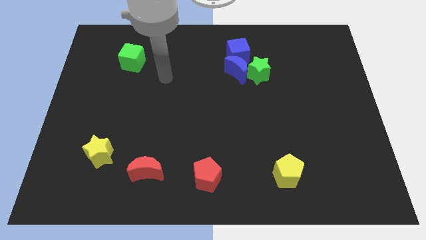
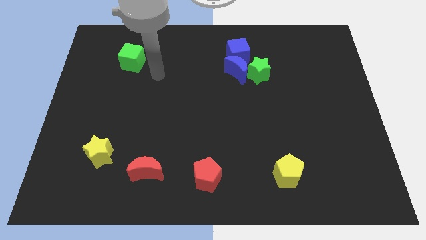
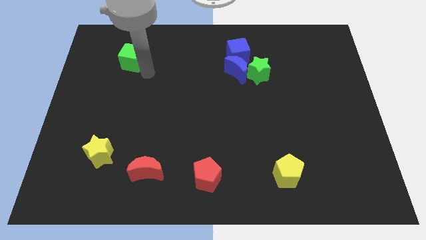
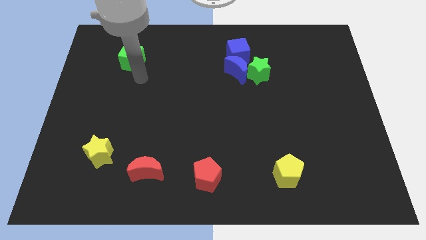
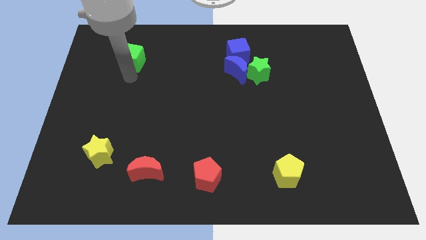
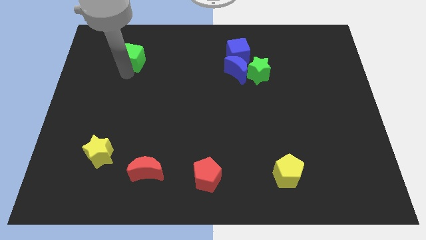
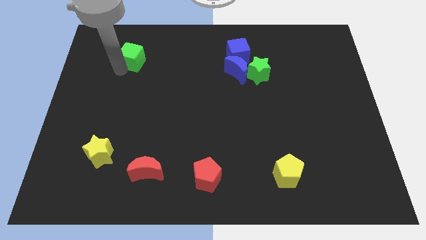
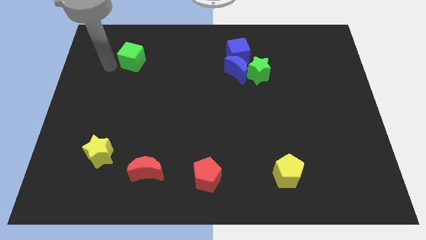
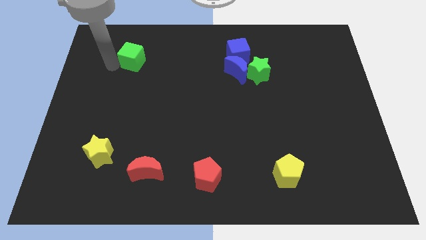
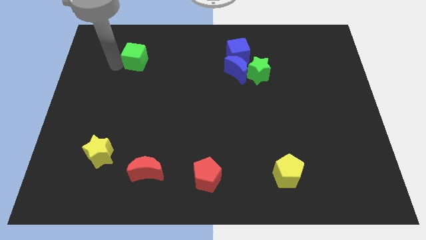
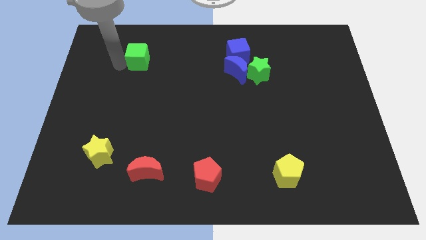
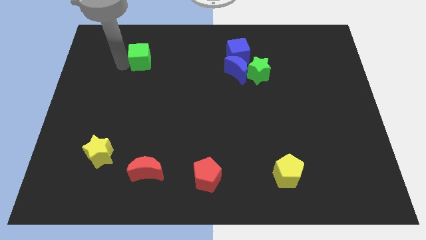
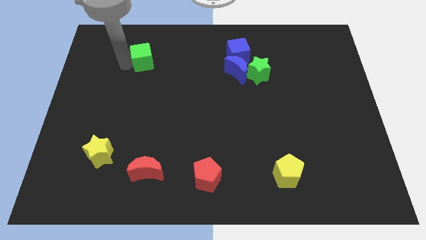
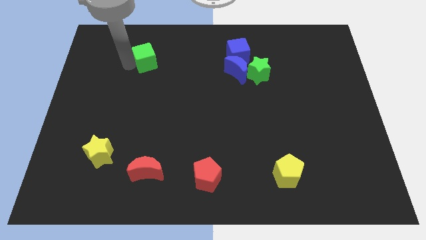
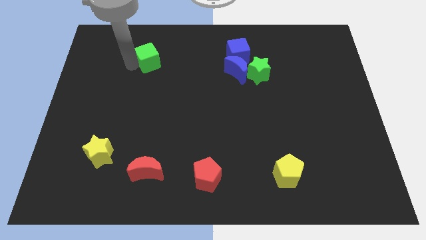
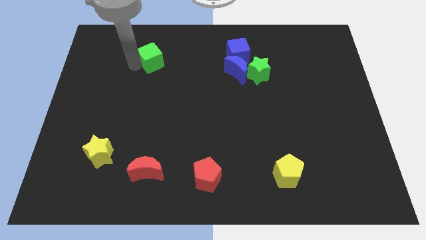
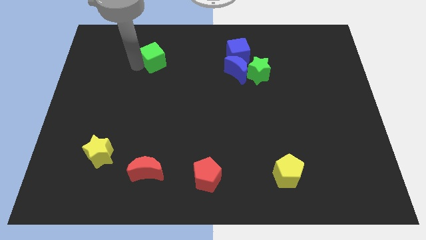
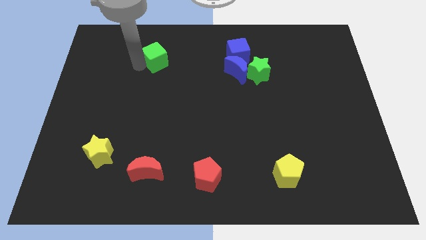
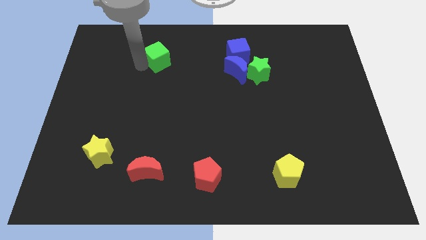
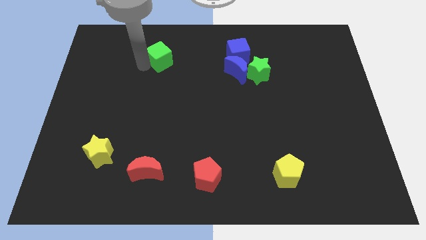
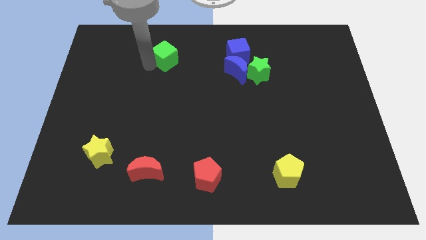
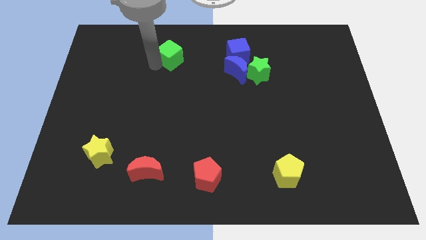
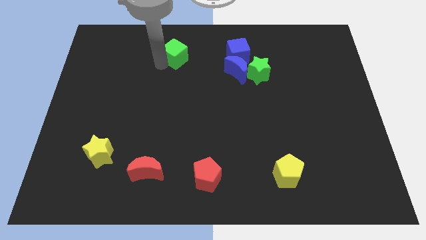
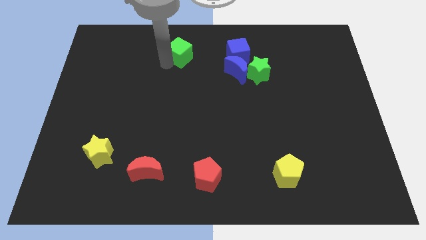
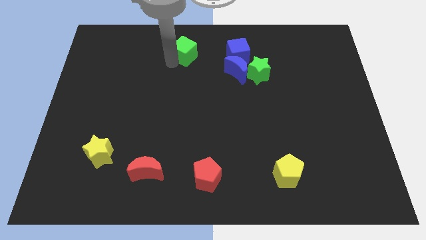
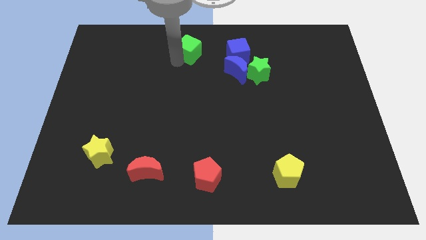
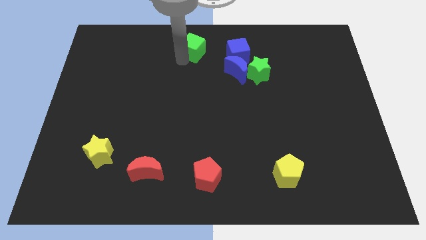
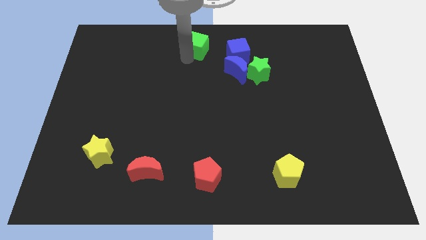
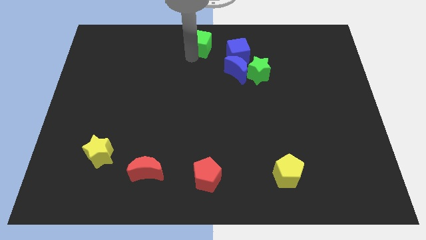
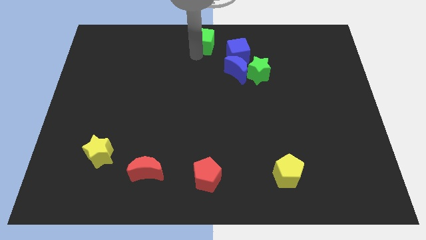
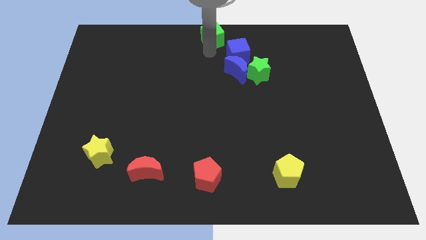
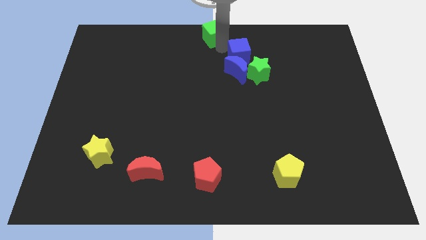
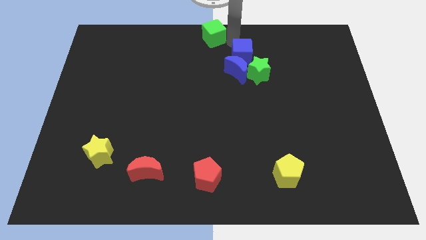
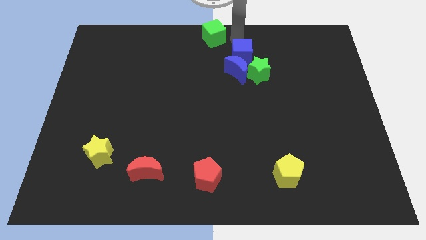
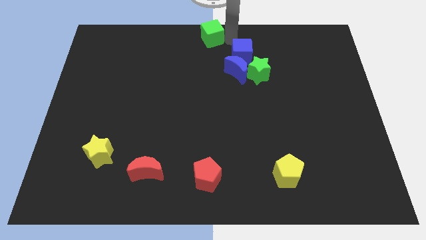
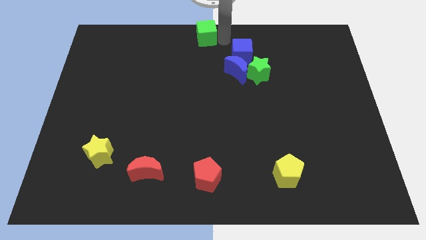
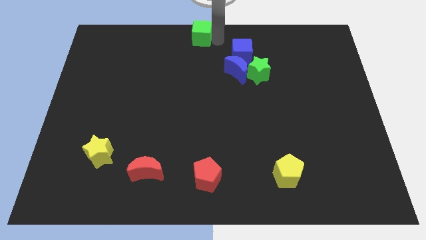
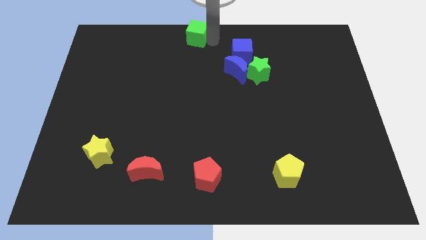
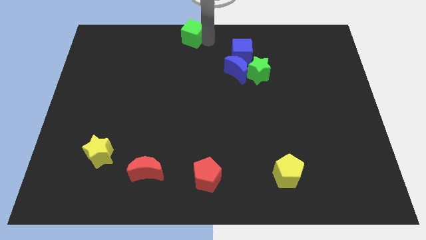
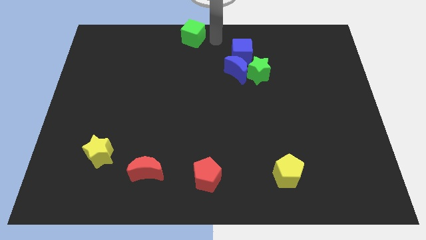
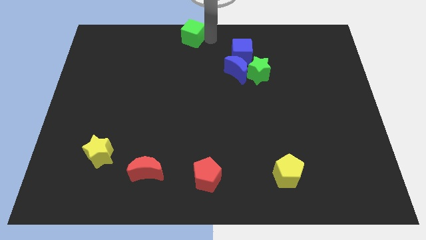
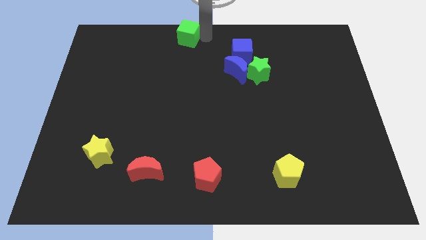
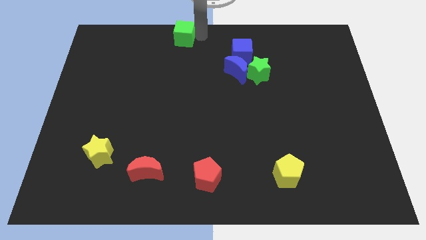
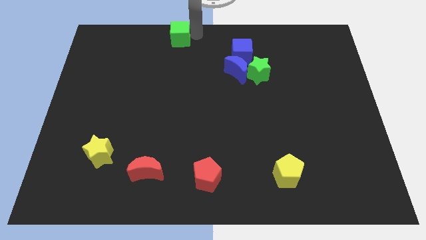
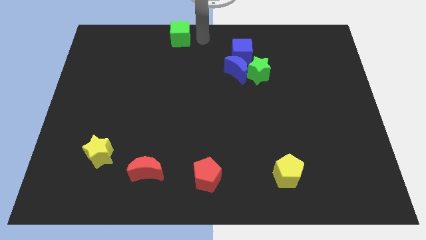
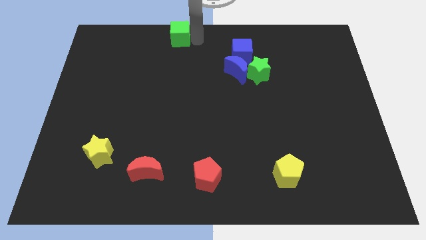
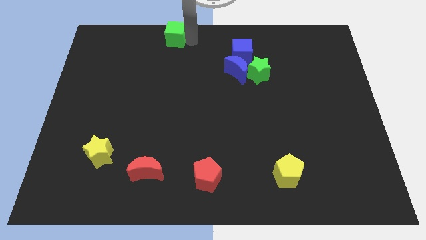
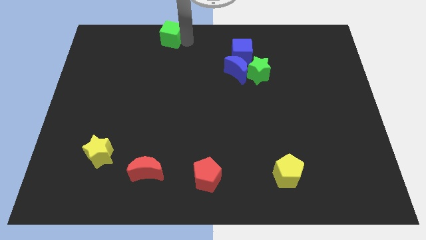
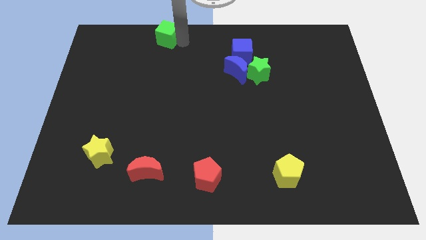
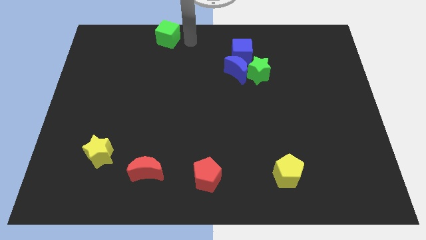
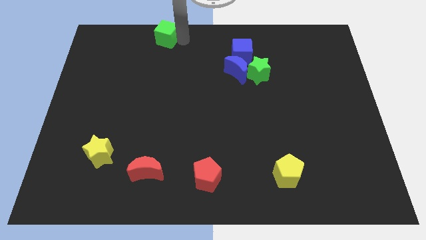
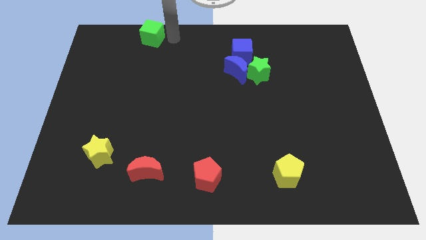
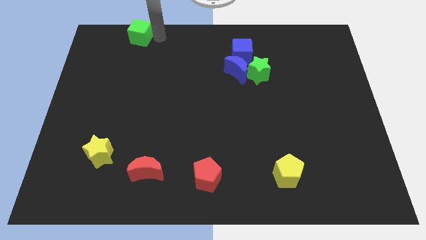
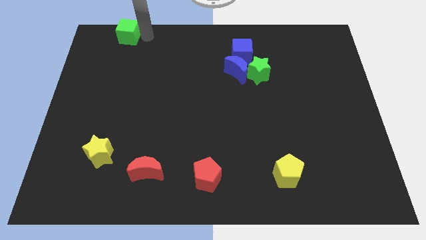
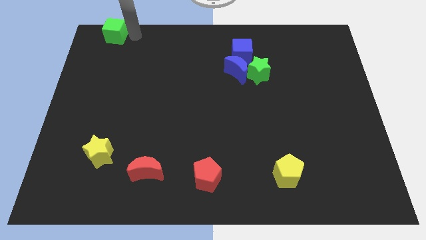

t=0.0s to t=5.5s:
put the green cube to the upper left corner

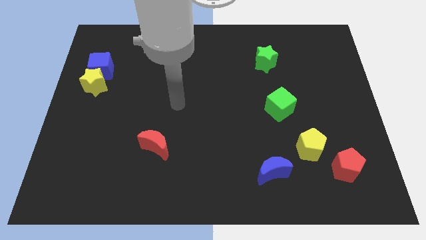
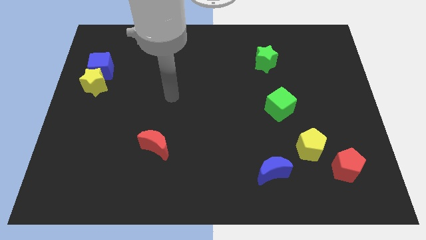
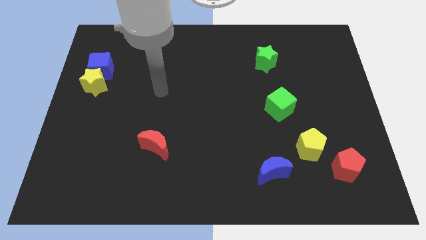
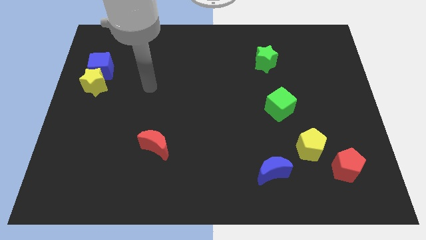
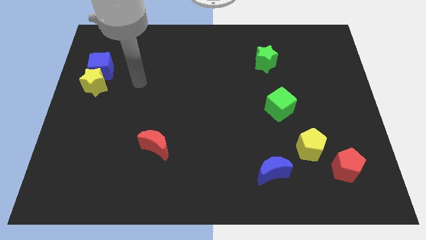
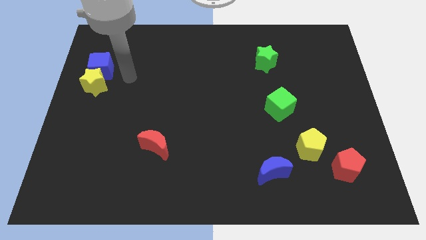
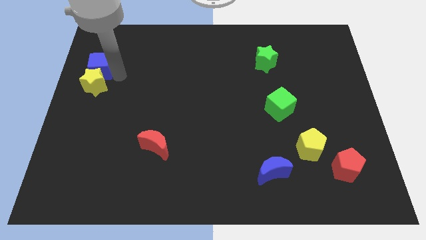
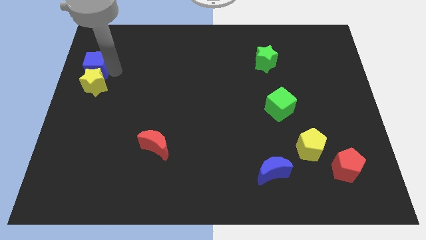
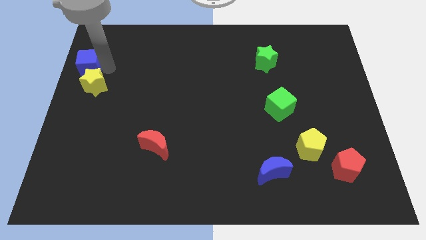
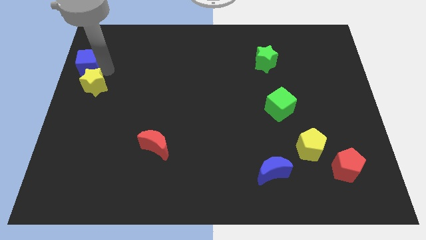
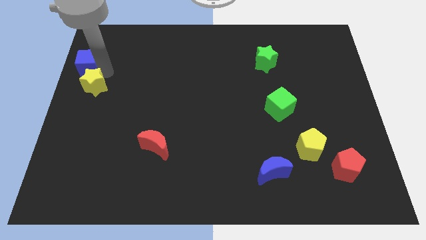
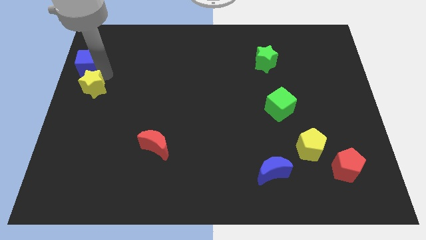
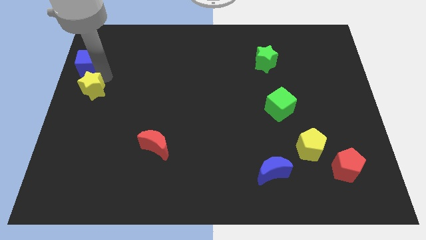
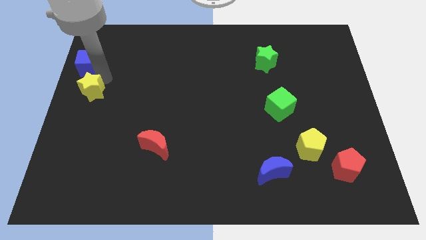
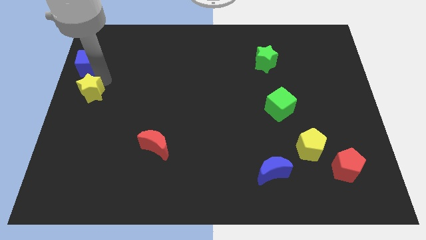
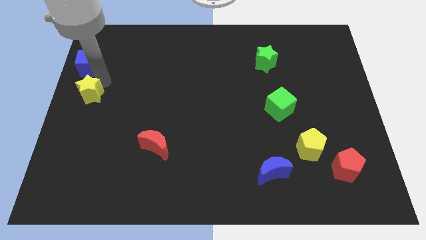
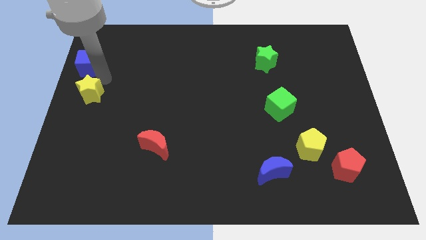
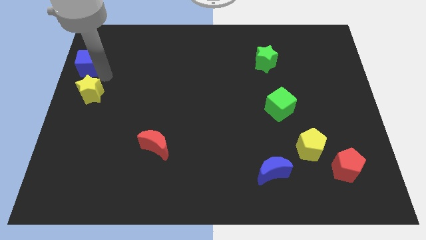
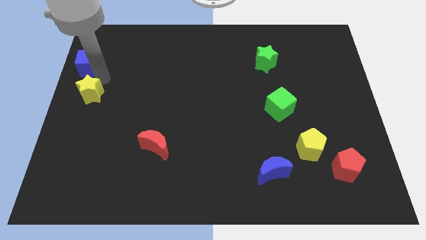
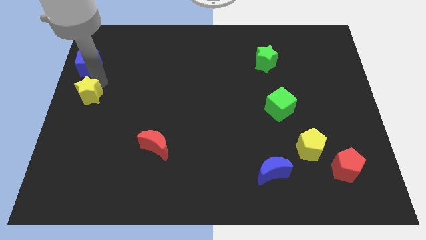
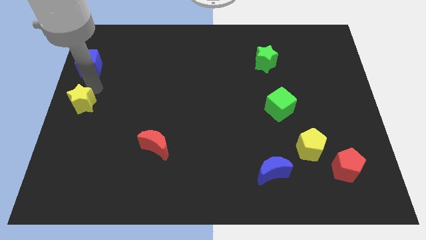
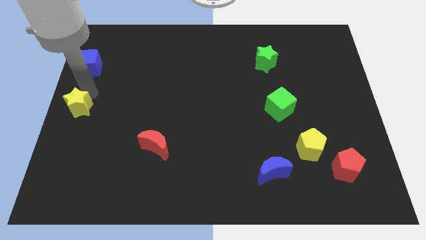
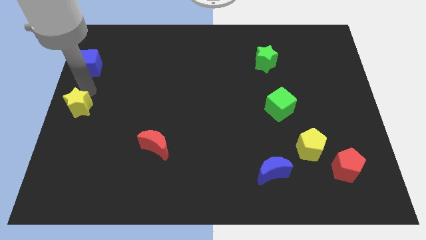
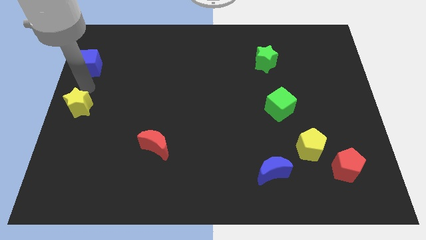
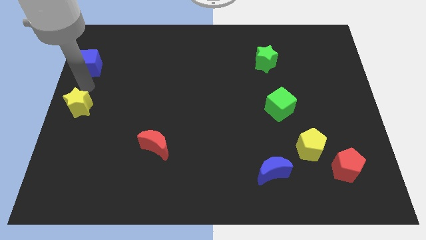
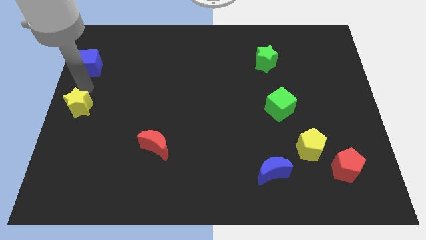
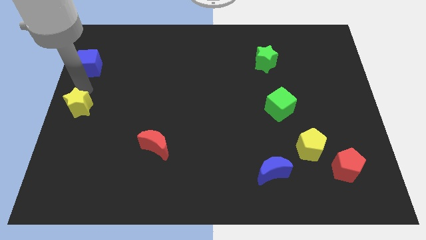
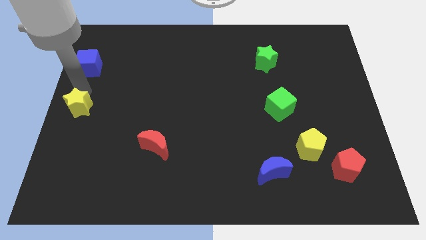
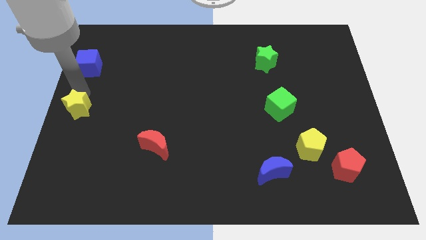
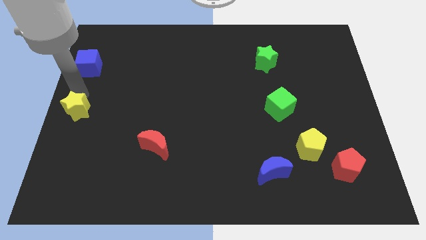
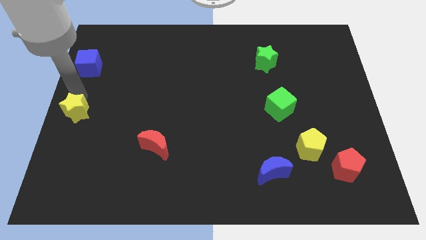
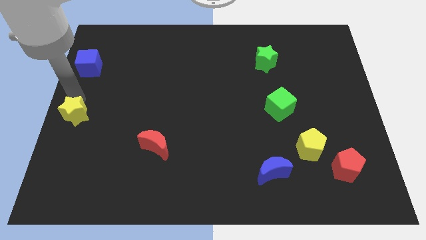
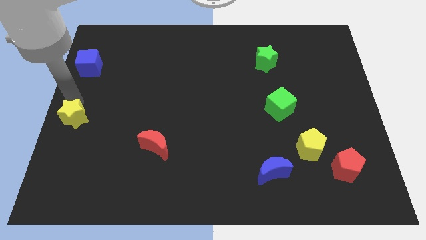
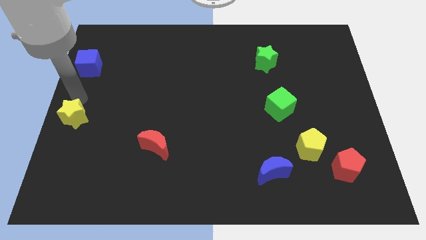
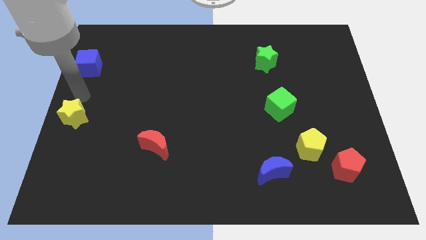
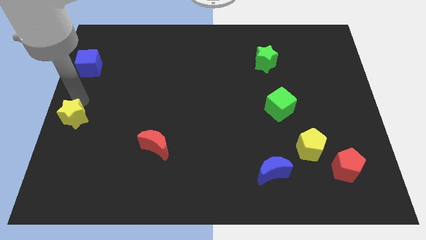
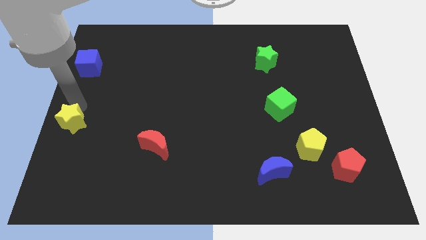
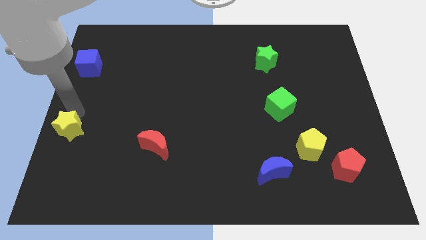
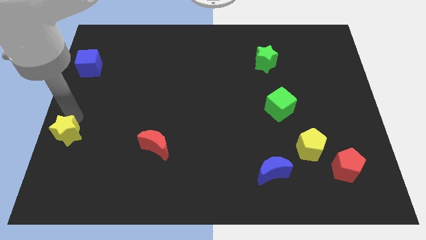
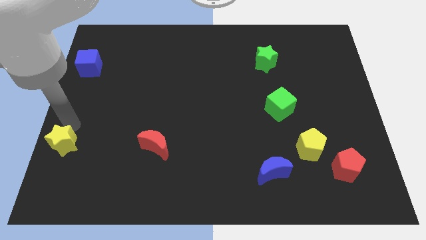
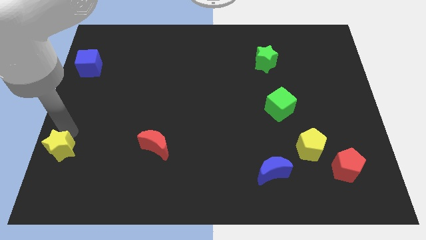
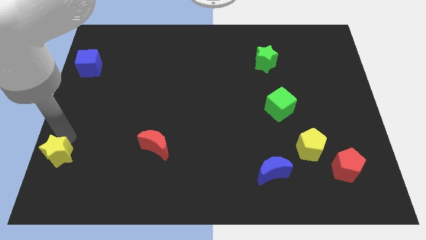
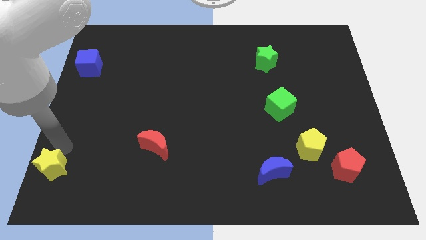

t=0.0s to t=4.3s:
move the yellow star to the bottom left of the board
